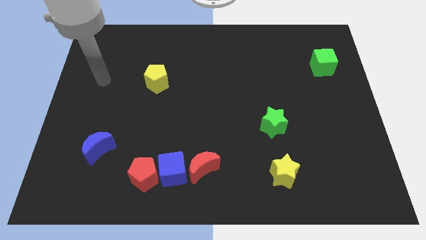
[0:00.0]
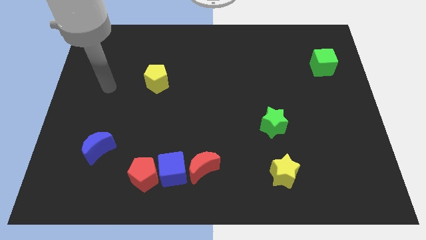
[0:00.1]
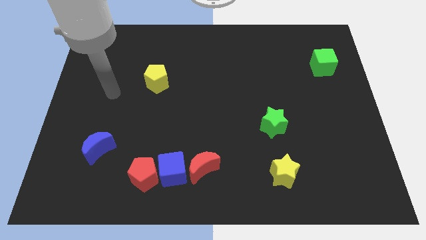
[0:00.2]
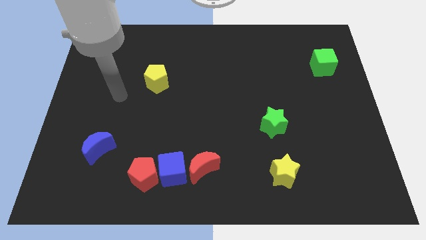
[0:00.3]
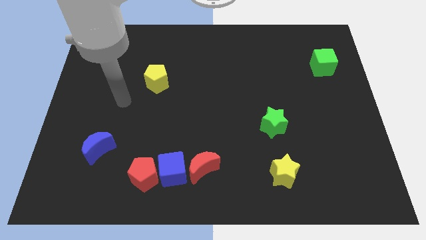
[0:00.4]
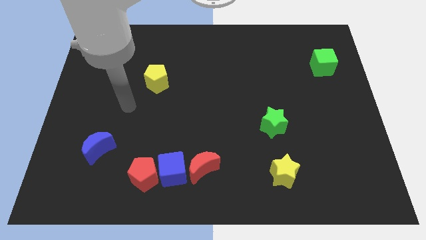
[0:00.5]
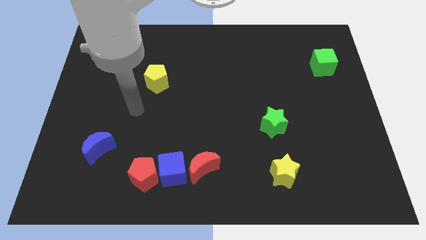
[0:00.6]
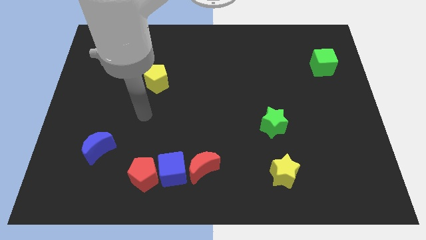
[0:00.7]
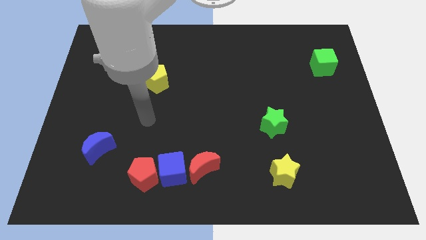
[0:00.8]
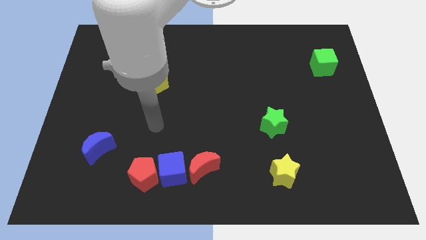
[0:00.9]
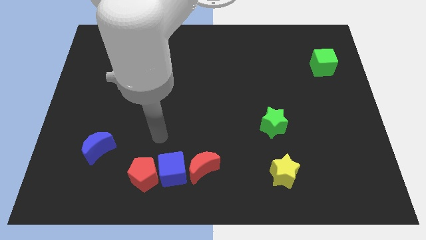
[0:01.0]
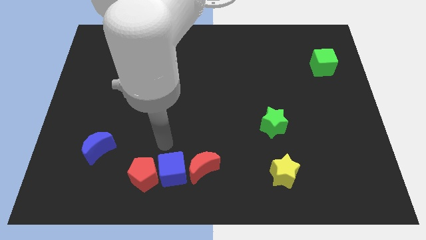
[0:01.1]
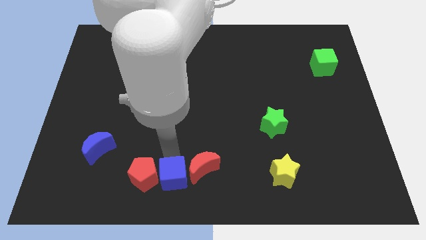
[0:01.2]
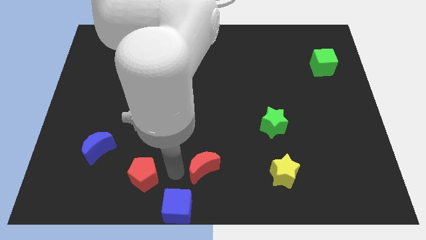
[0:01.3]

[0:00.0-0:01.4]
pull the red pentagon apart from the blue cube

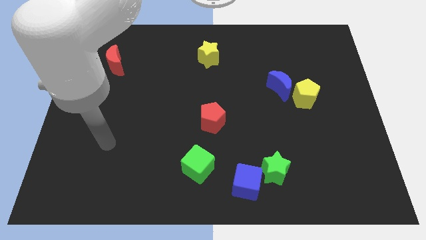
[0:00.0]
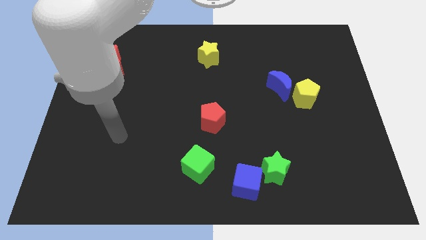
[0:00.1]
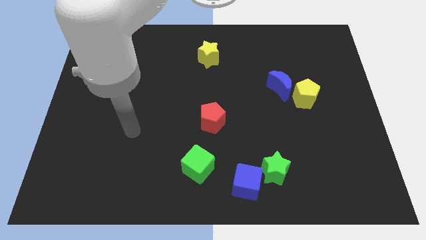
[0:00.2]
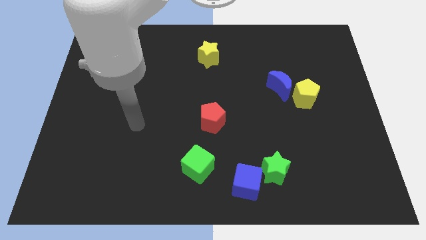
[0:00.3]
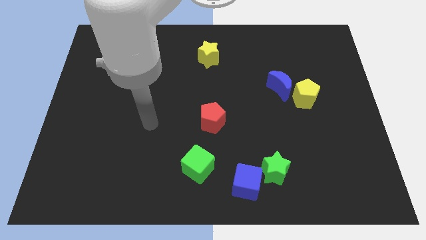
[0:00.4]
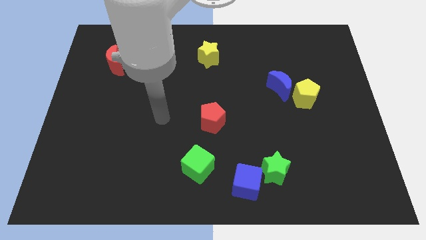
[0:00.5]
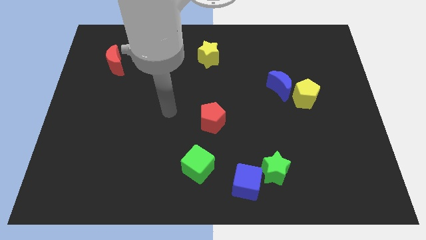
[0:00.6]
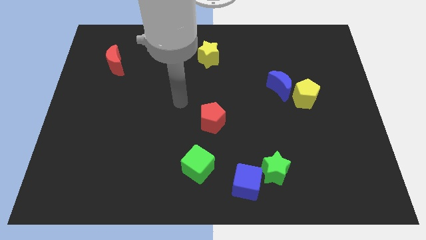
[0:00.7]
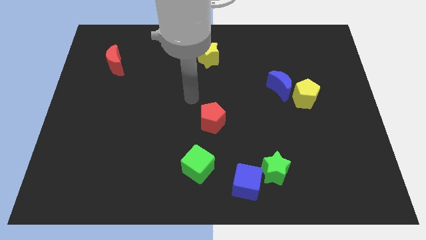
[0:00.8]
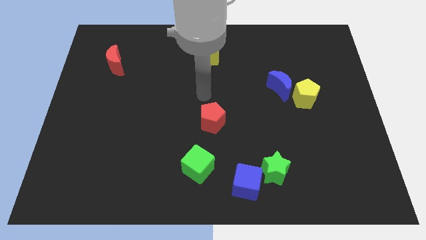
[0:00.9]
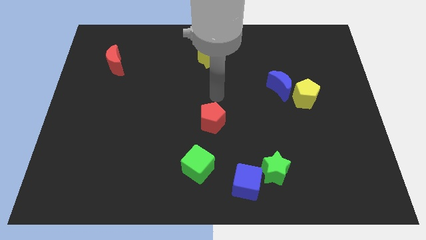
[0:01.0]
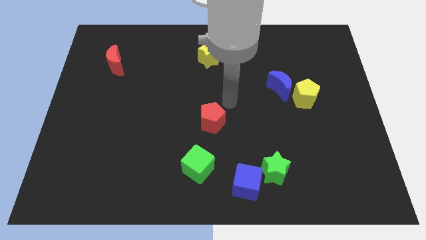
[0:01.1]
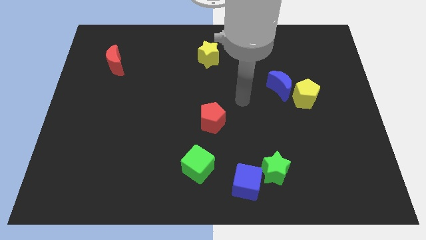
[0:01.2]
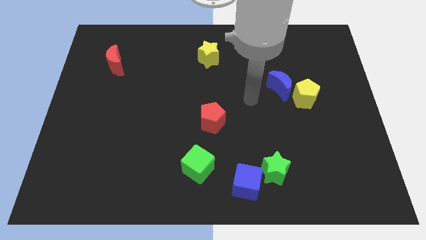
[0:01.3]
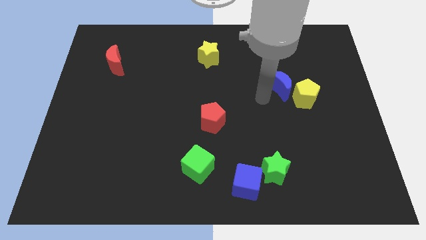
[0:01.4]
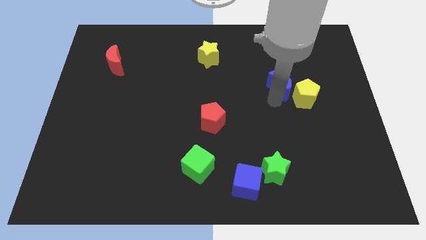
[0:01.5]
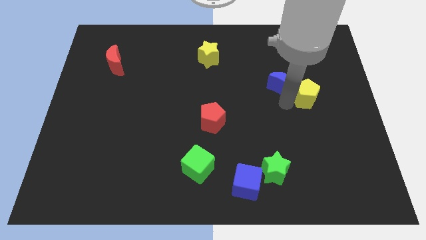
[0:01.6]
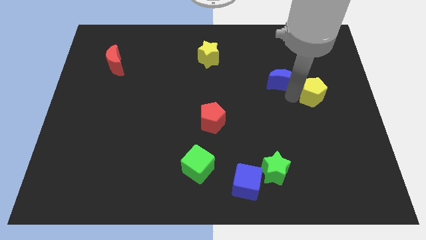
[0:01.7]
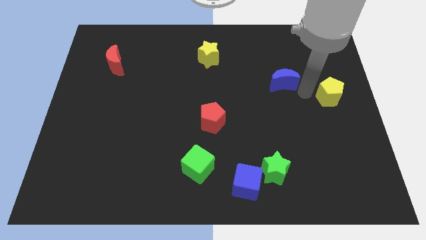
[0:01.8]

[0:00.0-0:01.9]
move the blue moon away from the yellow pentagon

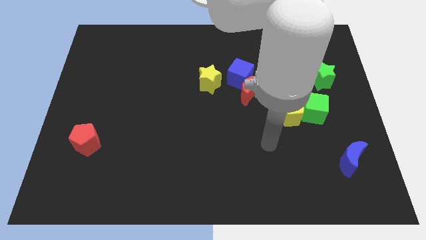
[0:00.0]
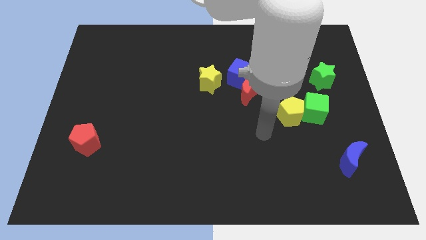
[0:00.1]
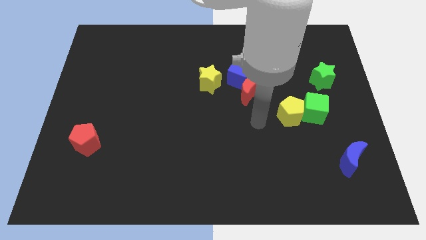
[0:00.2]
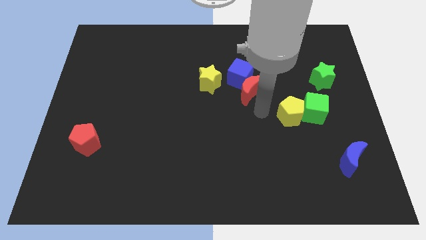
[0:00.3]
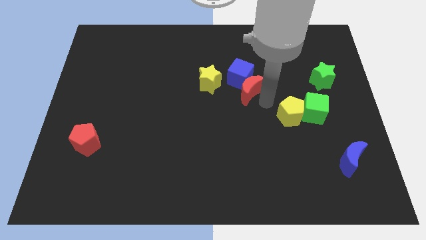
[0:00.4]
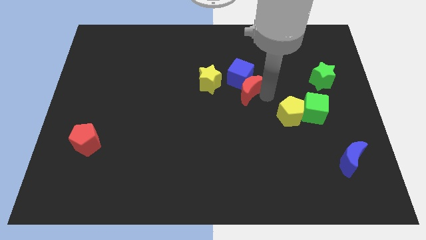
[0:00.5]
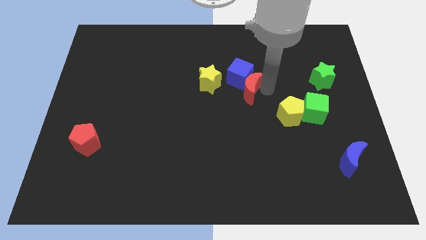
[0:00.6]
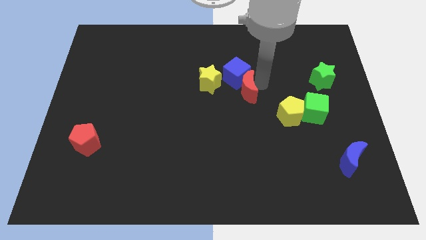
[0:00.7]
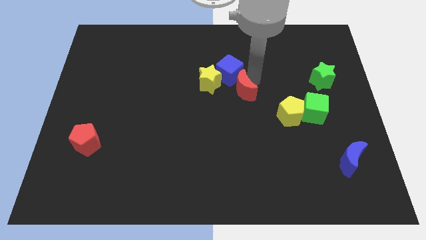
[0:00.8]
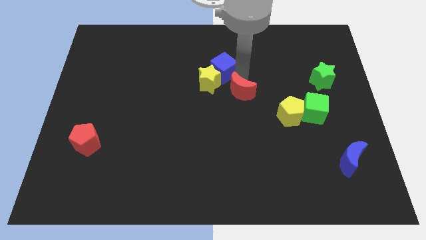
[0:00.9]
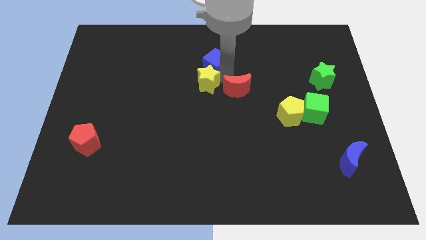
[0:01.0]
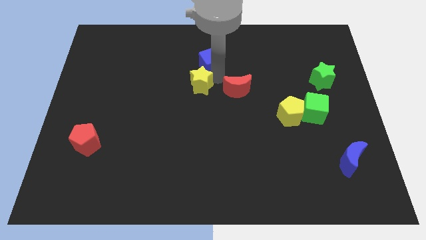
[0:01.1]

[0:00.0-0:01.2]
move the red moon away from the blue cube

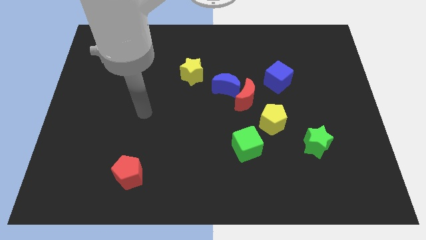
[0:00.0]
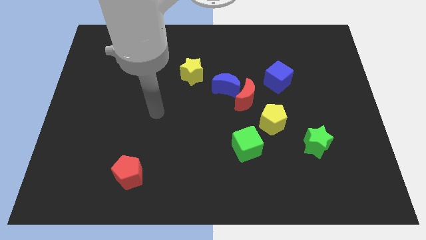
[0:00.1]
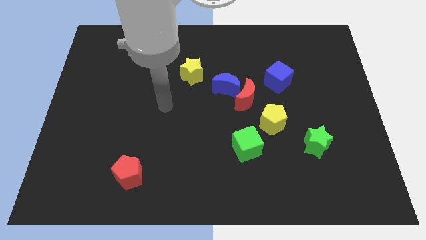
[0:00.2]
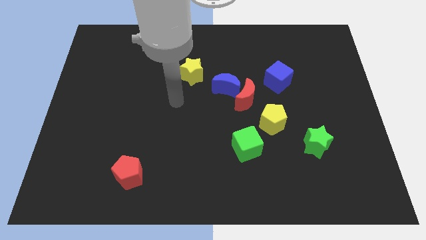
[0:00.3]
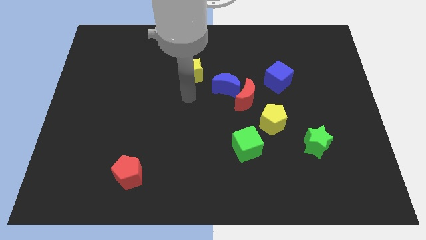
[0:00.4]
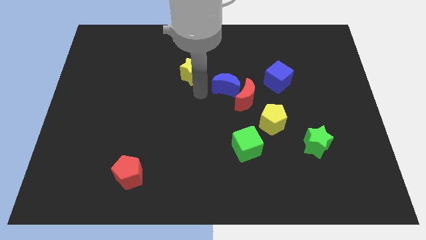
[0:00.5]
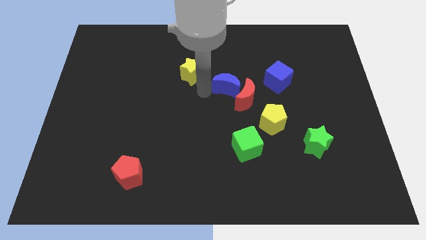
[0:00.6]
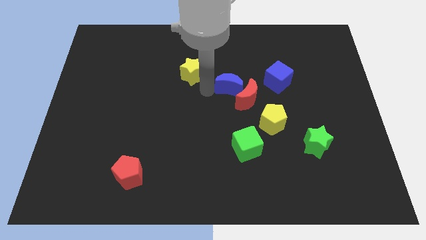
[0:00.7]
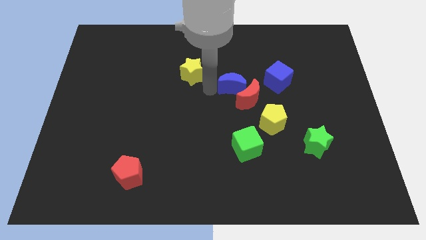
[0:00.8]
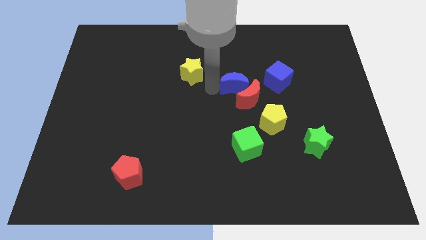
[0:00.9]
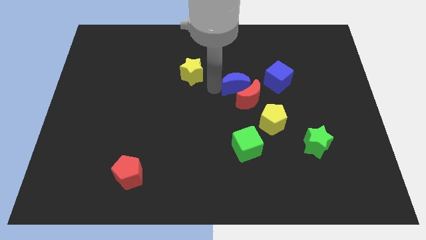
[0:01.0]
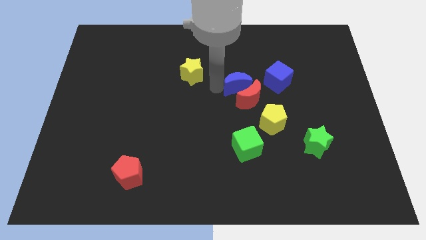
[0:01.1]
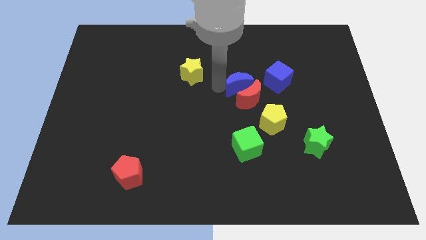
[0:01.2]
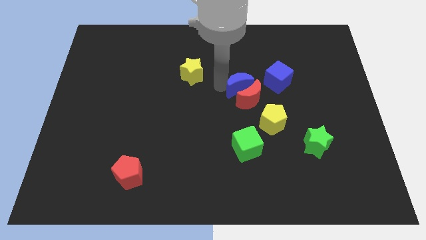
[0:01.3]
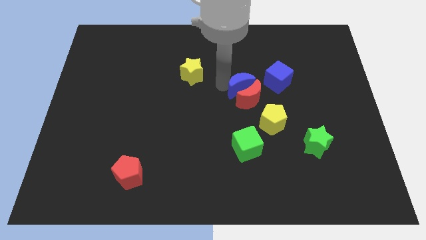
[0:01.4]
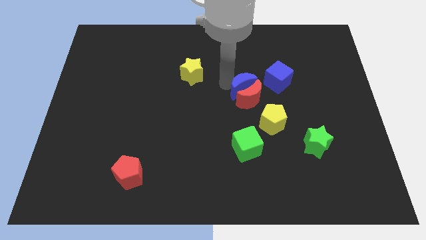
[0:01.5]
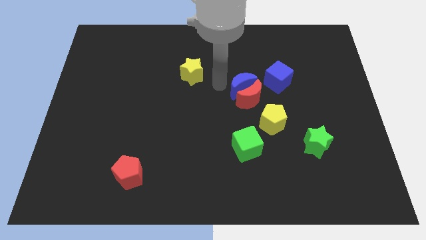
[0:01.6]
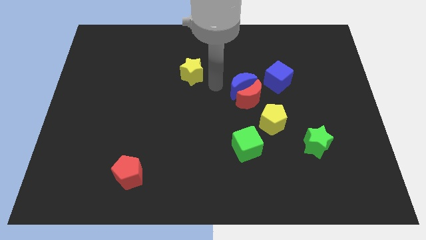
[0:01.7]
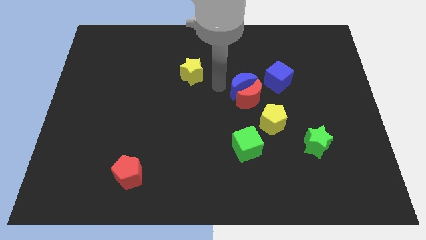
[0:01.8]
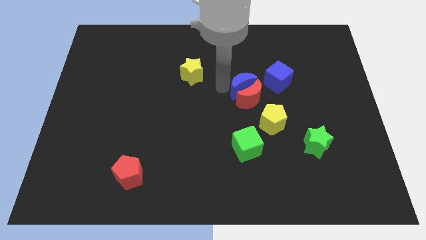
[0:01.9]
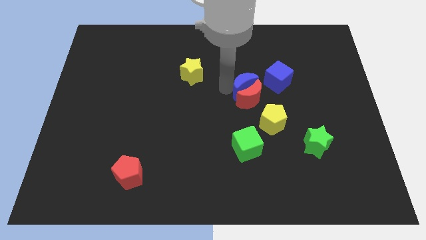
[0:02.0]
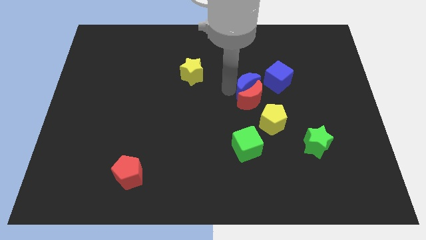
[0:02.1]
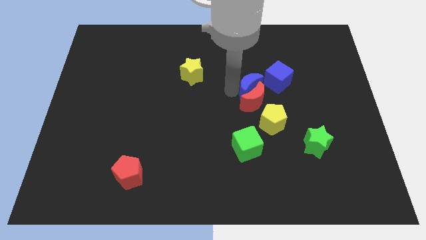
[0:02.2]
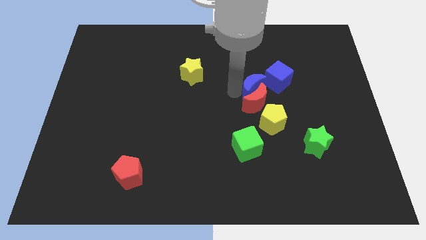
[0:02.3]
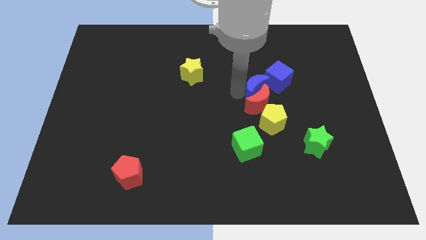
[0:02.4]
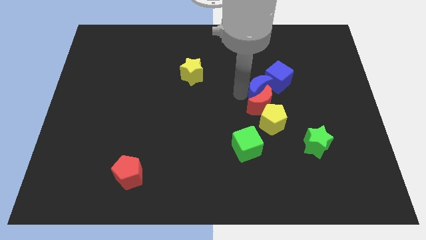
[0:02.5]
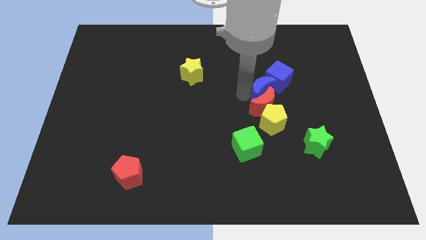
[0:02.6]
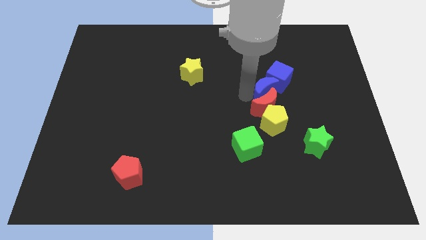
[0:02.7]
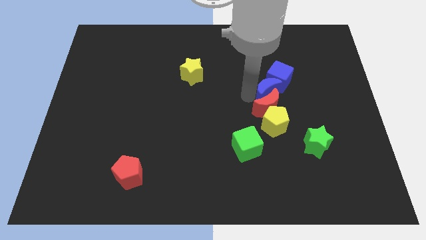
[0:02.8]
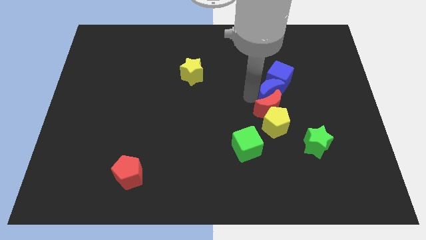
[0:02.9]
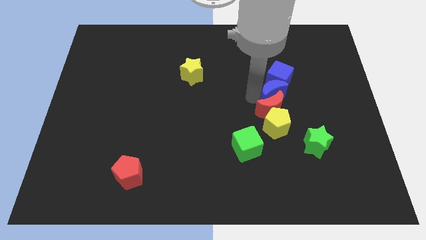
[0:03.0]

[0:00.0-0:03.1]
move the blue moon away from the red moon and yellow star

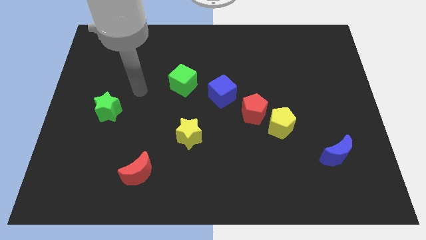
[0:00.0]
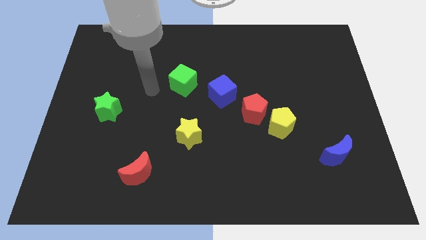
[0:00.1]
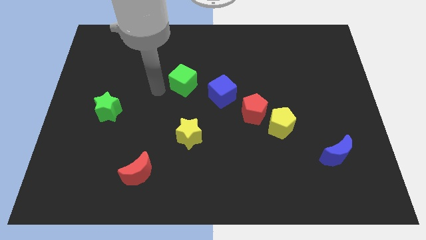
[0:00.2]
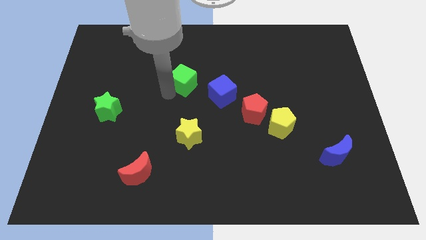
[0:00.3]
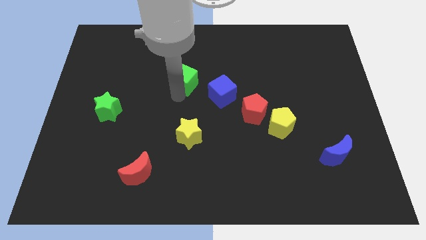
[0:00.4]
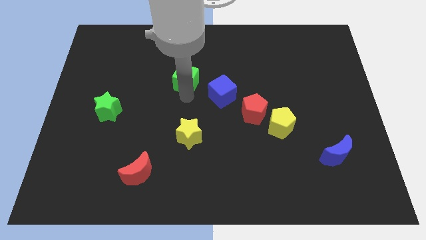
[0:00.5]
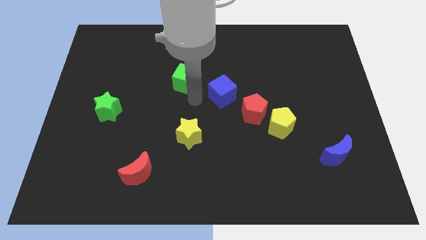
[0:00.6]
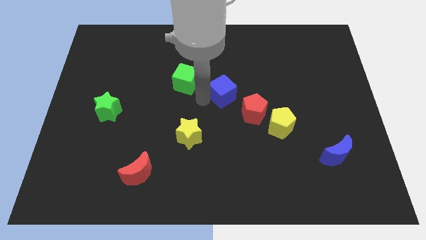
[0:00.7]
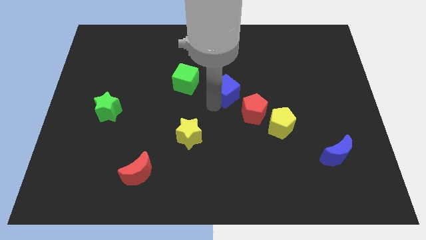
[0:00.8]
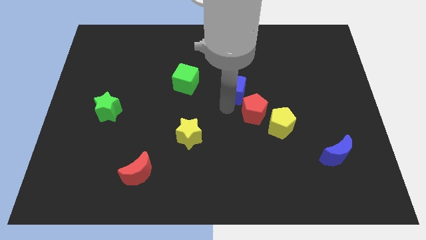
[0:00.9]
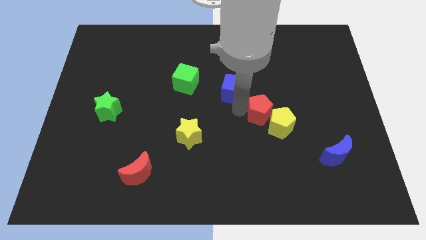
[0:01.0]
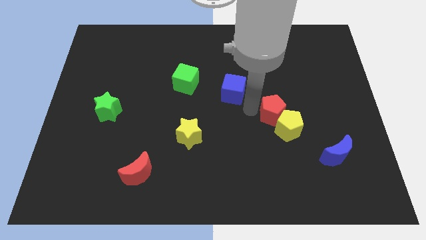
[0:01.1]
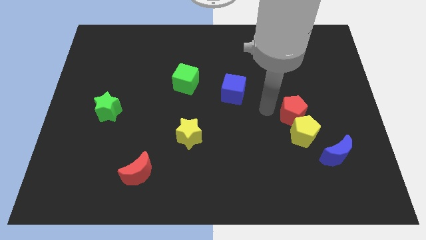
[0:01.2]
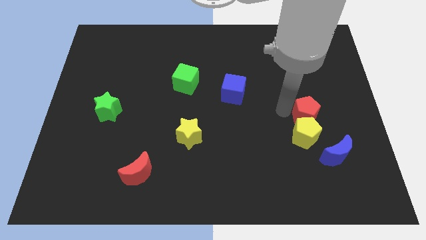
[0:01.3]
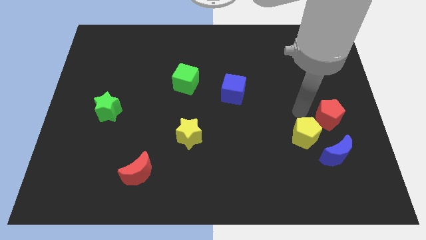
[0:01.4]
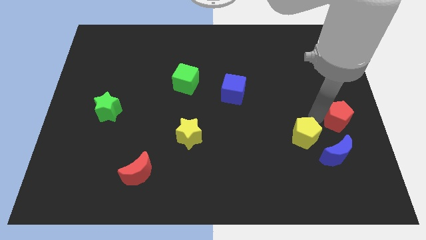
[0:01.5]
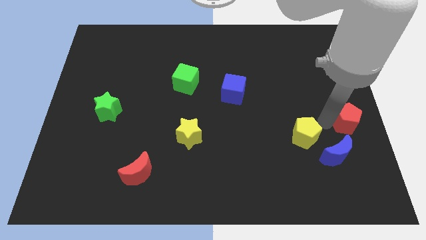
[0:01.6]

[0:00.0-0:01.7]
pull the yellow pentagon apart from the red pentagon
